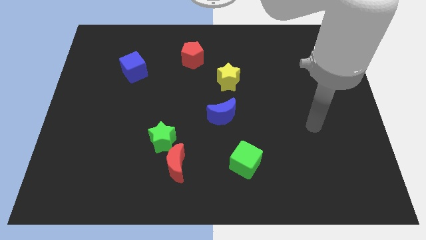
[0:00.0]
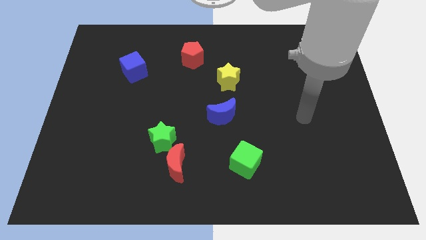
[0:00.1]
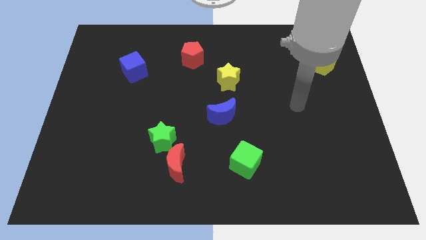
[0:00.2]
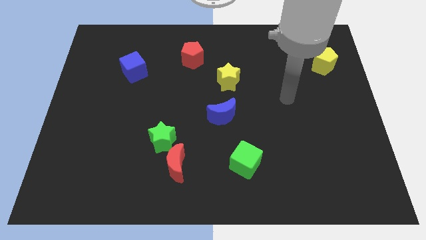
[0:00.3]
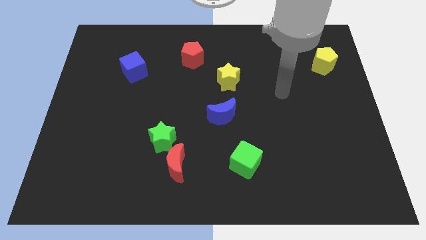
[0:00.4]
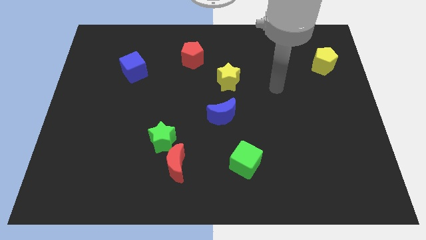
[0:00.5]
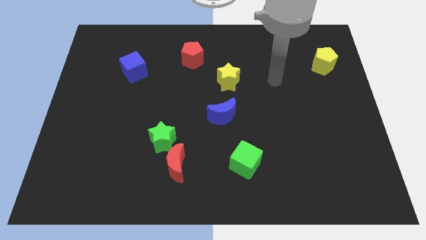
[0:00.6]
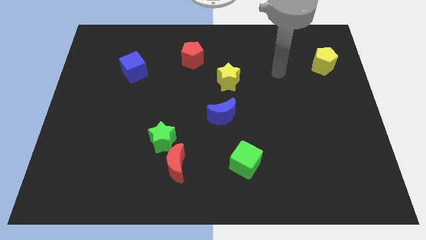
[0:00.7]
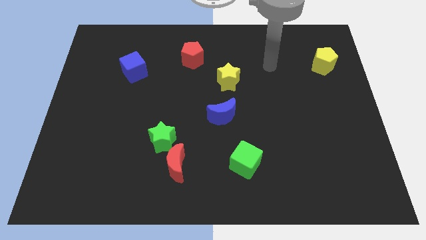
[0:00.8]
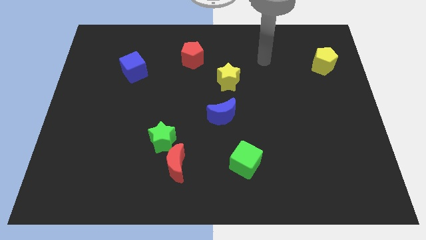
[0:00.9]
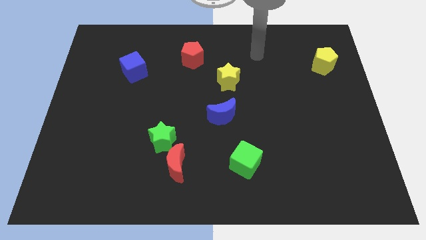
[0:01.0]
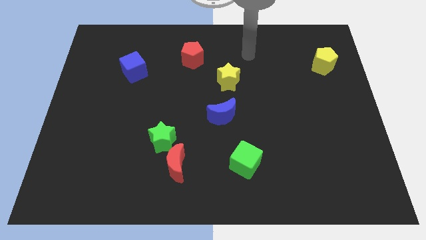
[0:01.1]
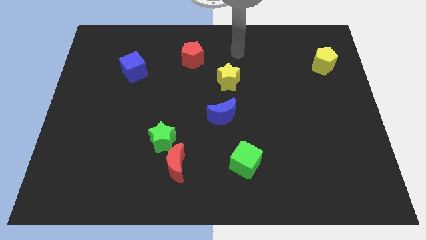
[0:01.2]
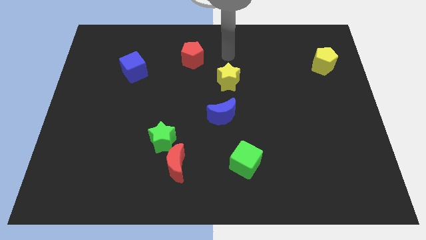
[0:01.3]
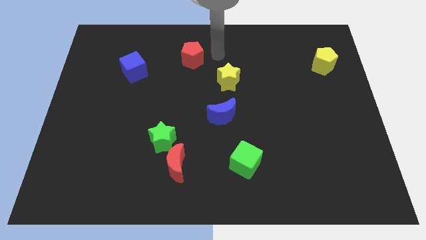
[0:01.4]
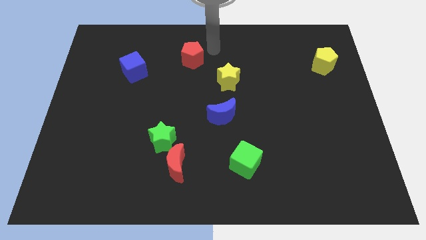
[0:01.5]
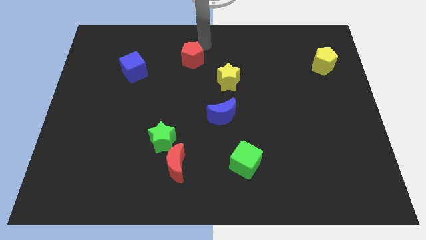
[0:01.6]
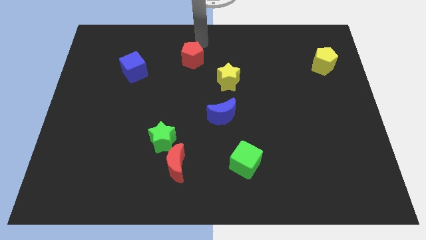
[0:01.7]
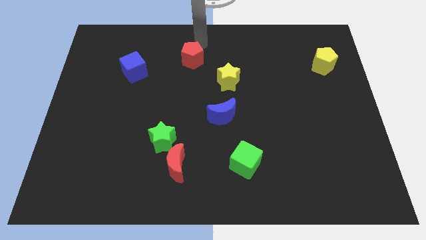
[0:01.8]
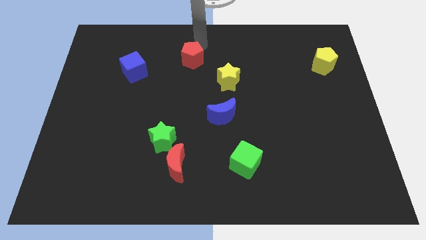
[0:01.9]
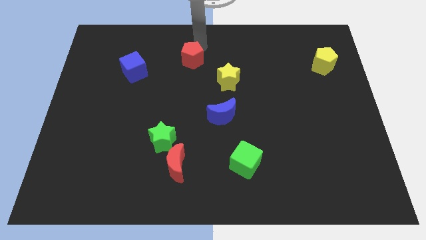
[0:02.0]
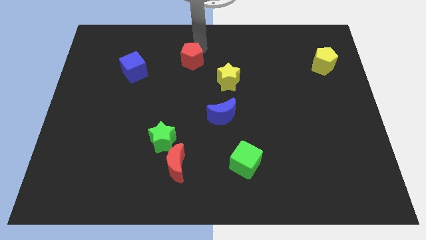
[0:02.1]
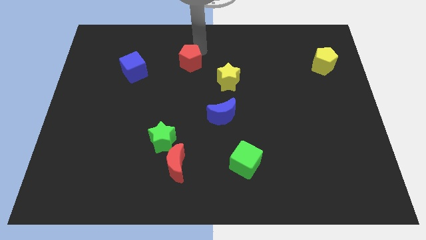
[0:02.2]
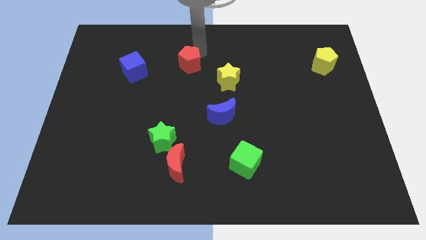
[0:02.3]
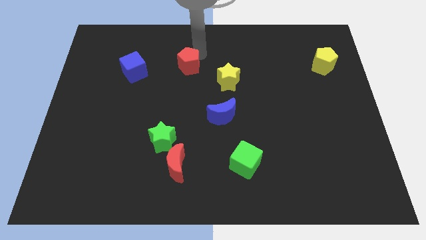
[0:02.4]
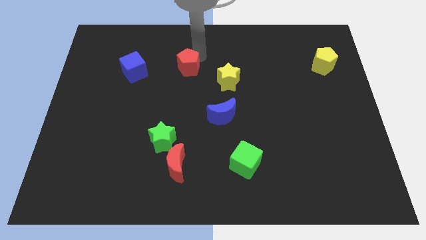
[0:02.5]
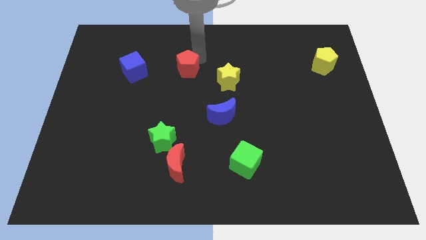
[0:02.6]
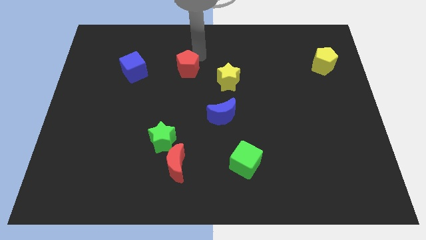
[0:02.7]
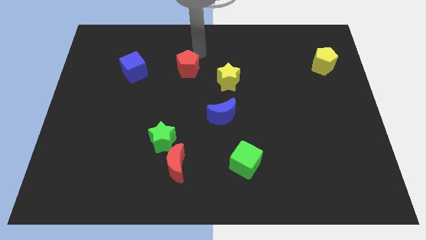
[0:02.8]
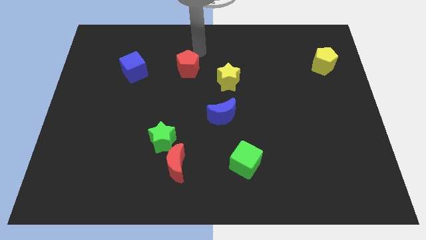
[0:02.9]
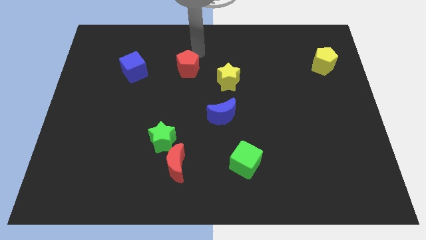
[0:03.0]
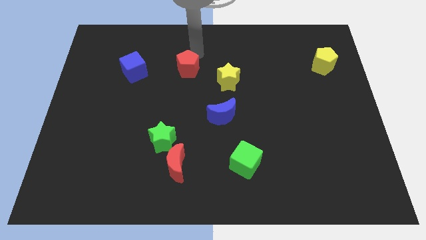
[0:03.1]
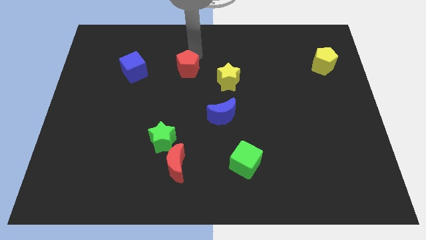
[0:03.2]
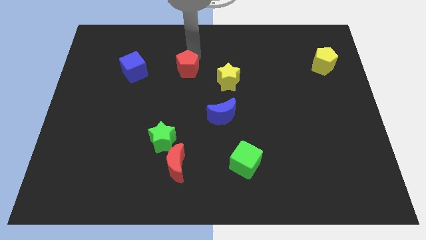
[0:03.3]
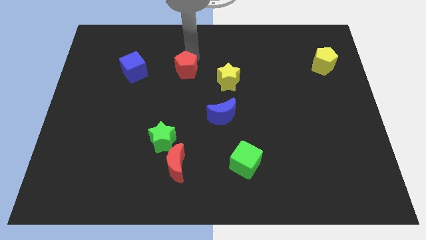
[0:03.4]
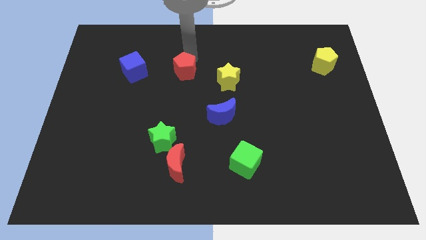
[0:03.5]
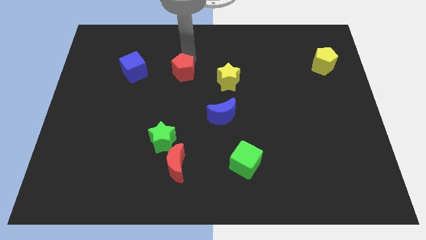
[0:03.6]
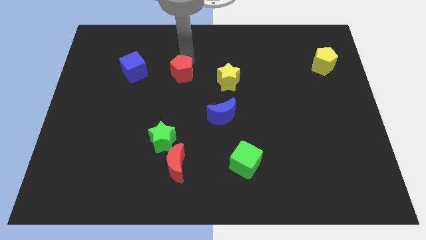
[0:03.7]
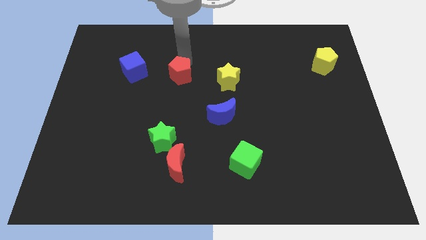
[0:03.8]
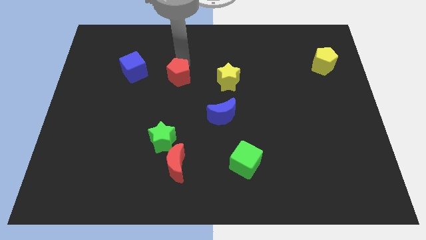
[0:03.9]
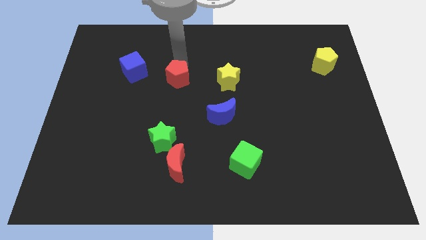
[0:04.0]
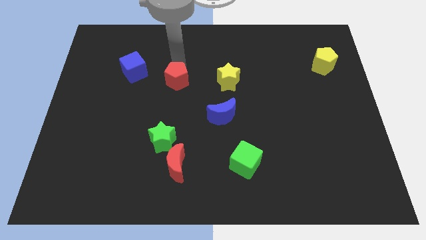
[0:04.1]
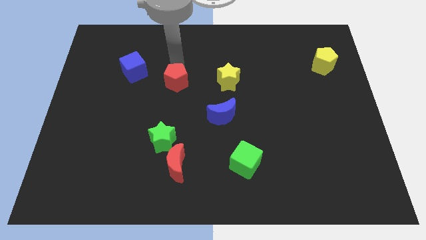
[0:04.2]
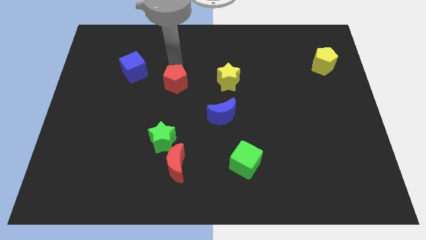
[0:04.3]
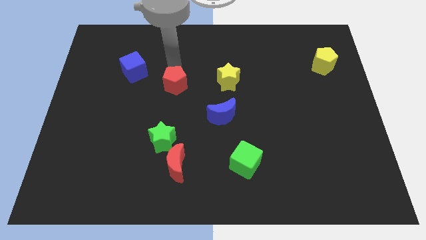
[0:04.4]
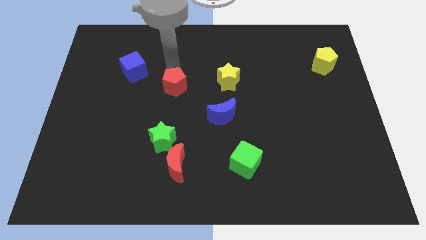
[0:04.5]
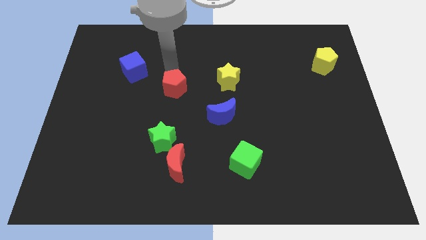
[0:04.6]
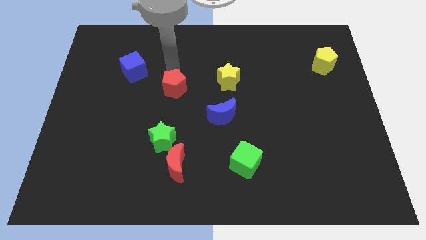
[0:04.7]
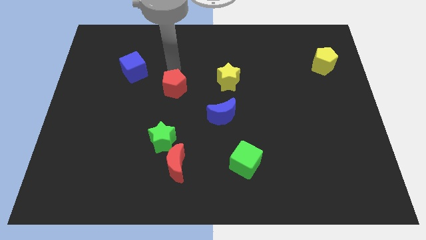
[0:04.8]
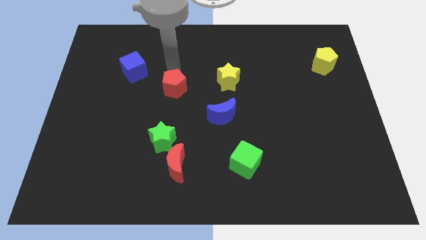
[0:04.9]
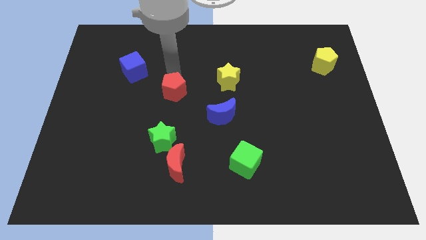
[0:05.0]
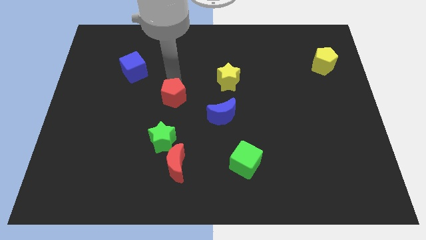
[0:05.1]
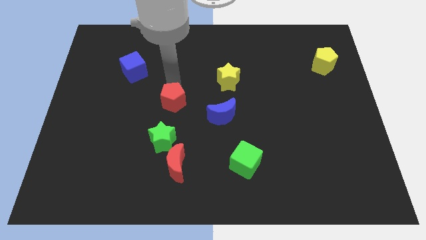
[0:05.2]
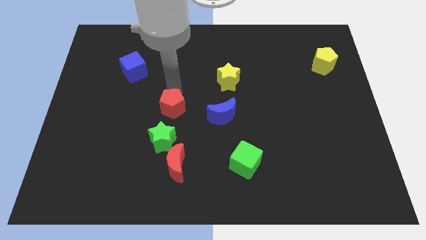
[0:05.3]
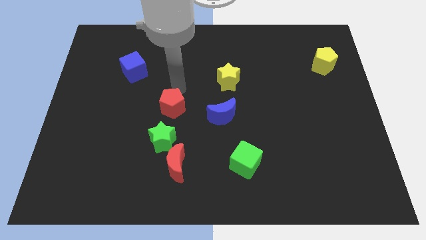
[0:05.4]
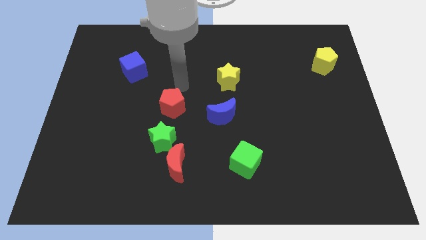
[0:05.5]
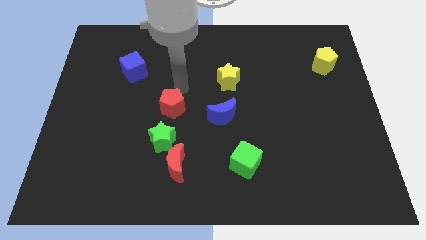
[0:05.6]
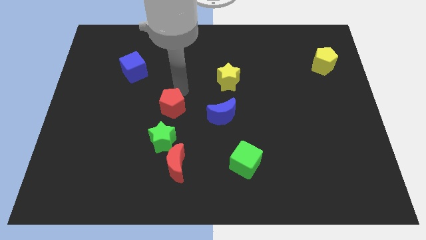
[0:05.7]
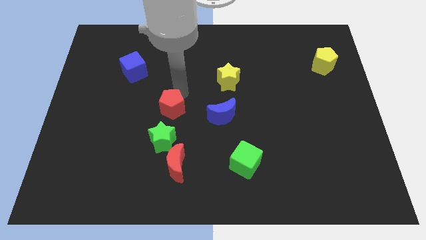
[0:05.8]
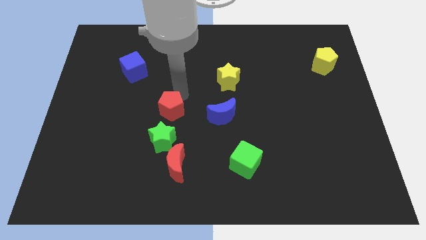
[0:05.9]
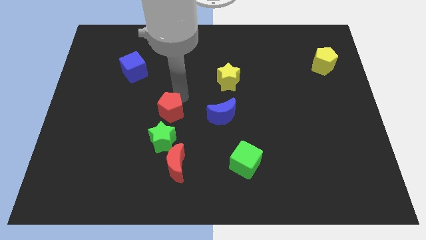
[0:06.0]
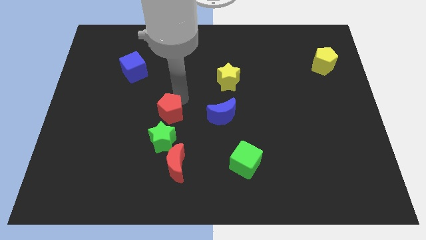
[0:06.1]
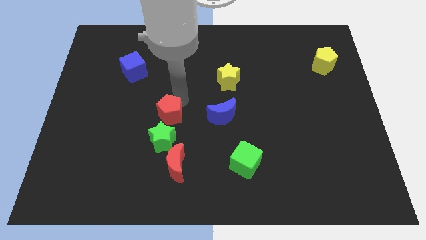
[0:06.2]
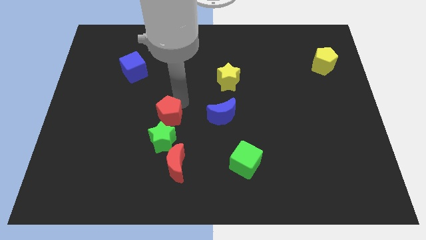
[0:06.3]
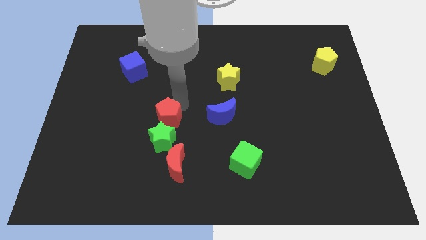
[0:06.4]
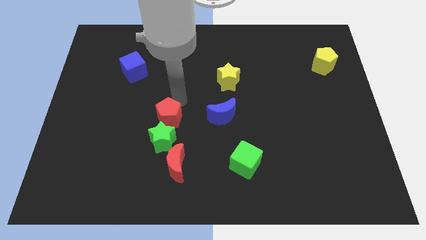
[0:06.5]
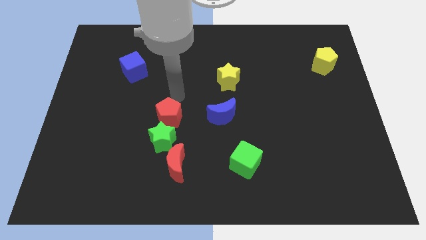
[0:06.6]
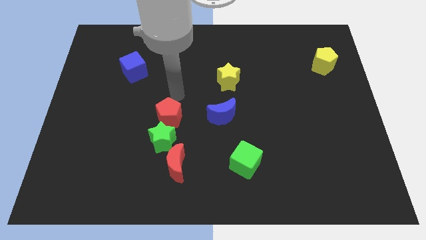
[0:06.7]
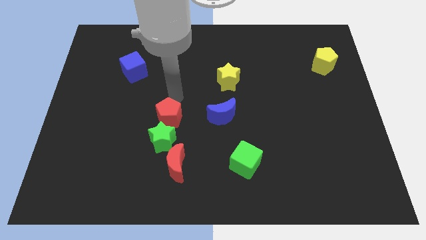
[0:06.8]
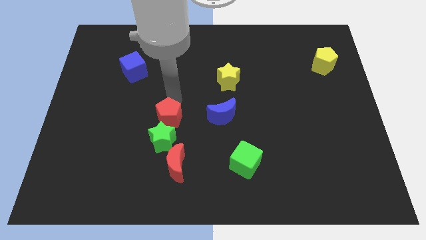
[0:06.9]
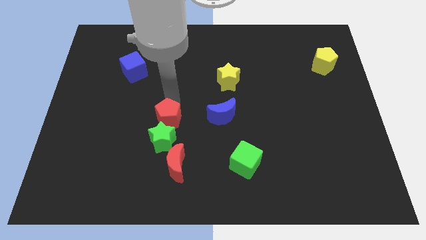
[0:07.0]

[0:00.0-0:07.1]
put the red pentagon next to the green star
